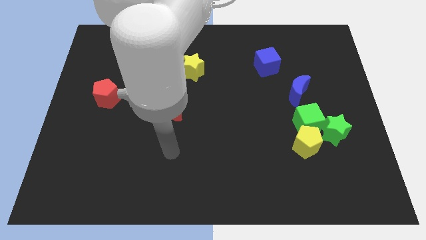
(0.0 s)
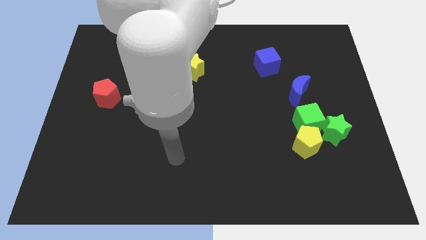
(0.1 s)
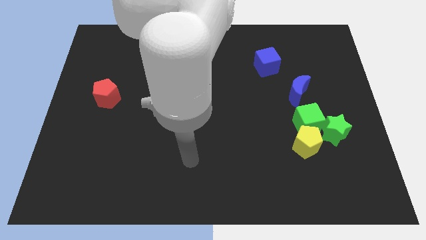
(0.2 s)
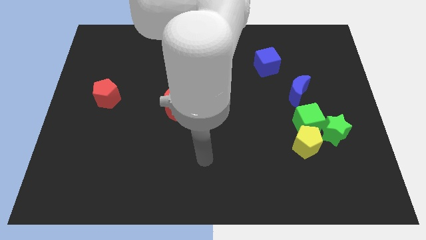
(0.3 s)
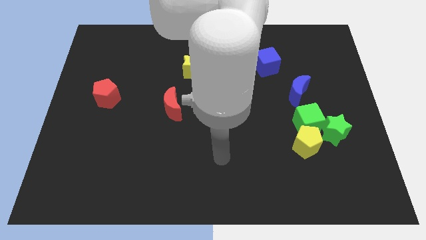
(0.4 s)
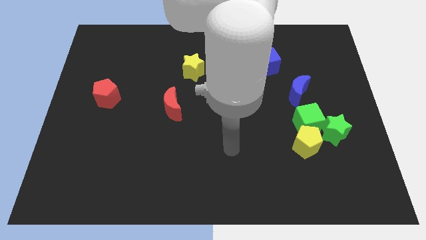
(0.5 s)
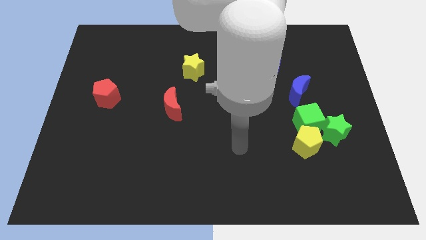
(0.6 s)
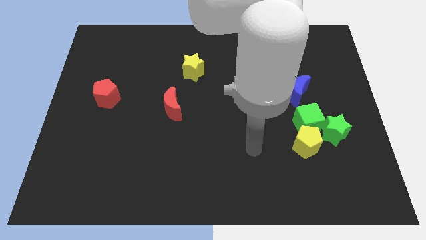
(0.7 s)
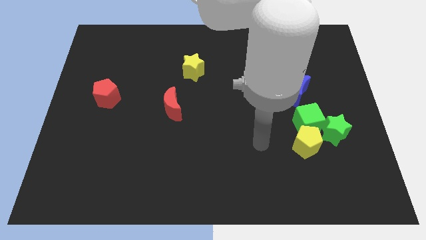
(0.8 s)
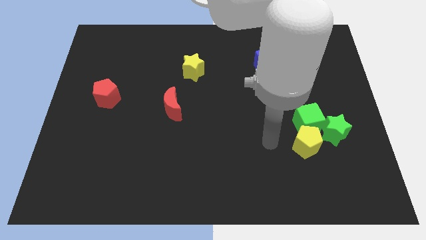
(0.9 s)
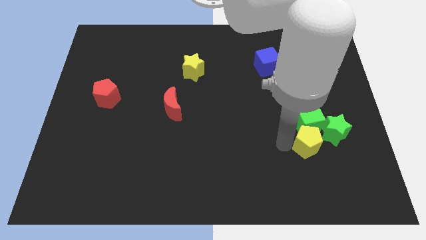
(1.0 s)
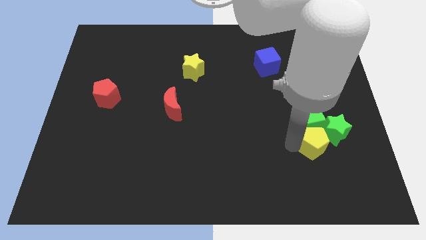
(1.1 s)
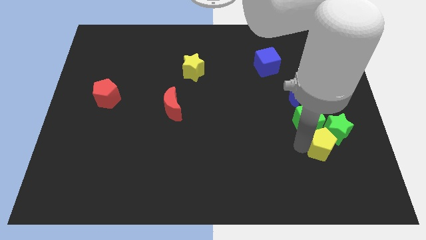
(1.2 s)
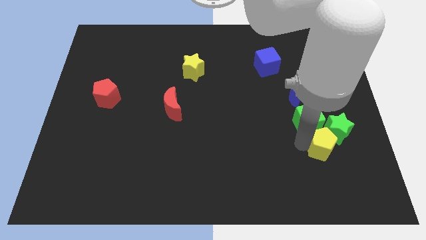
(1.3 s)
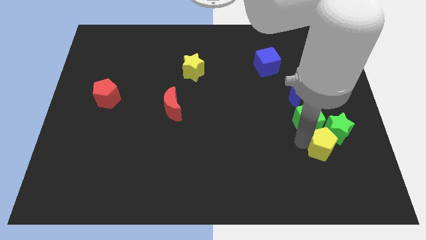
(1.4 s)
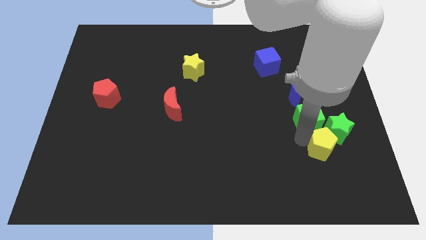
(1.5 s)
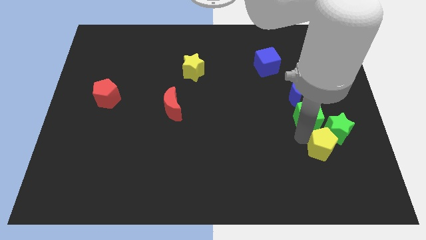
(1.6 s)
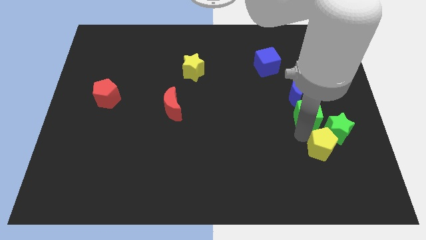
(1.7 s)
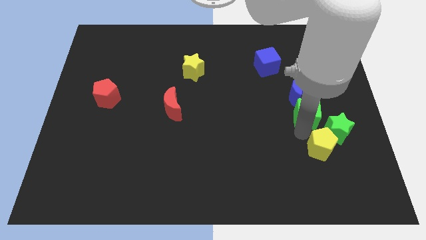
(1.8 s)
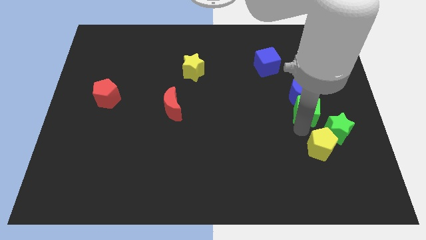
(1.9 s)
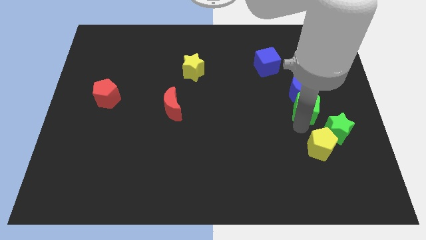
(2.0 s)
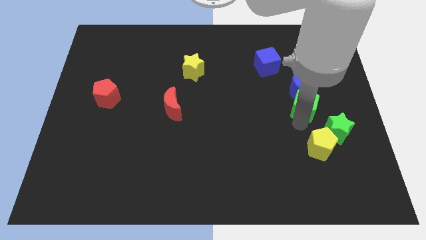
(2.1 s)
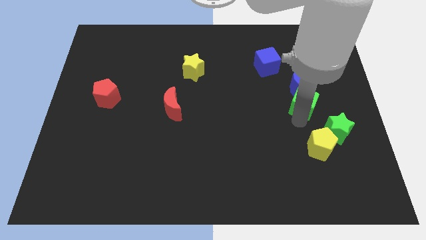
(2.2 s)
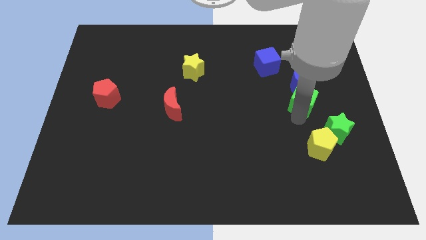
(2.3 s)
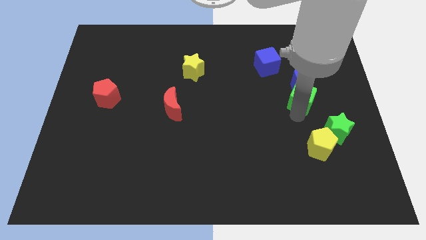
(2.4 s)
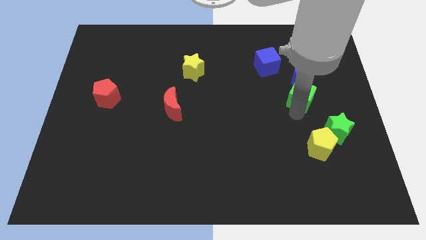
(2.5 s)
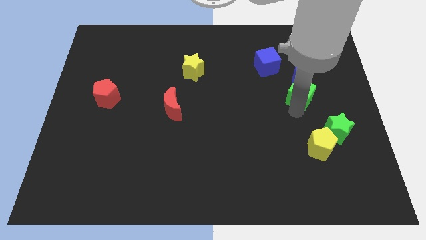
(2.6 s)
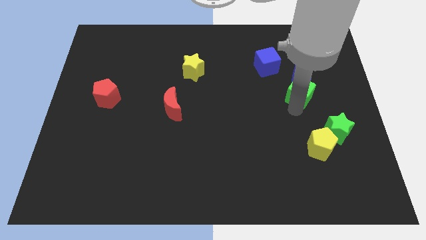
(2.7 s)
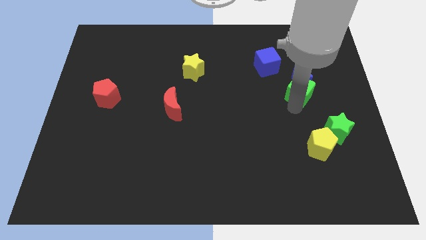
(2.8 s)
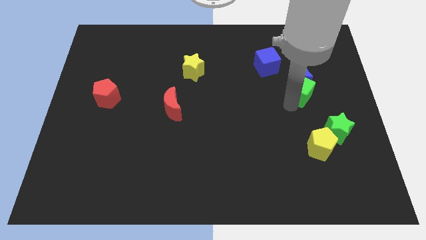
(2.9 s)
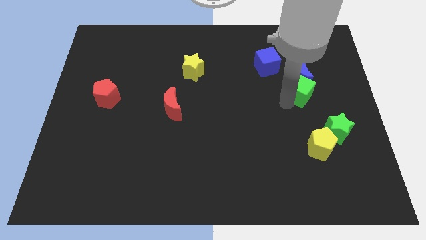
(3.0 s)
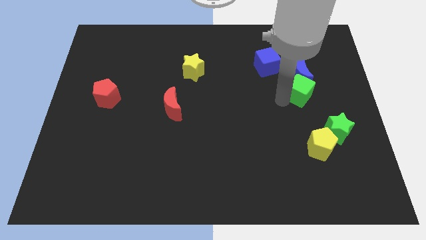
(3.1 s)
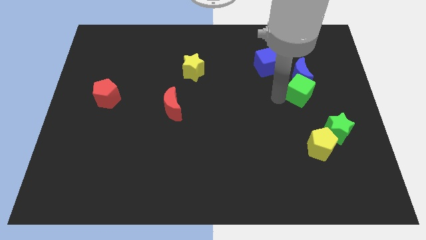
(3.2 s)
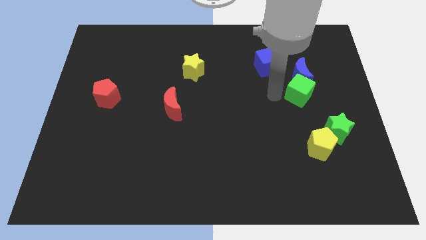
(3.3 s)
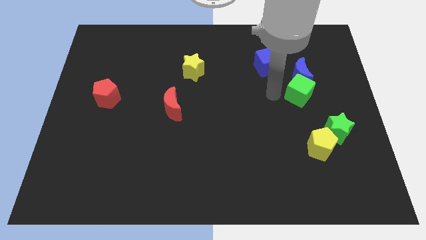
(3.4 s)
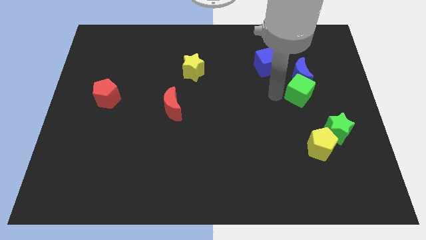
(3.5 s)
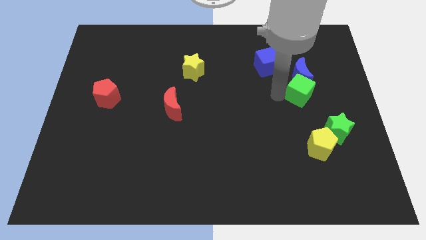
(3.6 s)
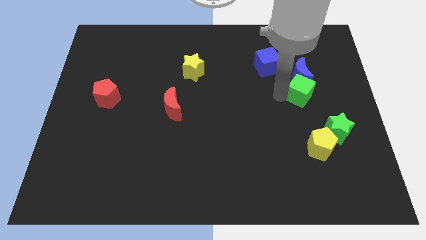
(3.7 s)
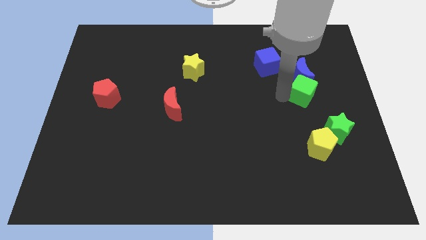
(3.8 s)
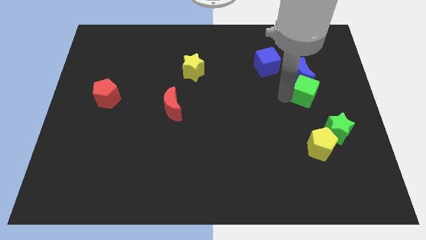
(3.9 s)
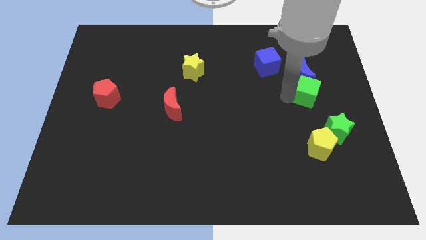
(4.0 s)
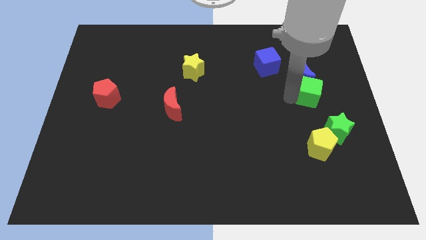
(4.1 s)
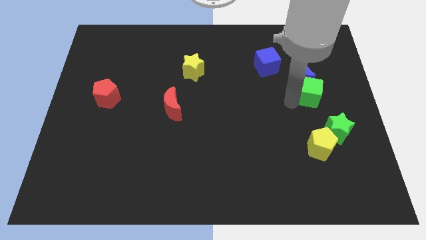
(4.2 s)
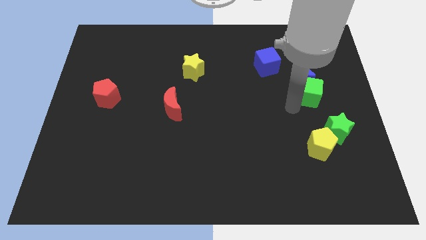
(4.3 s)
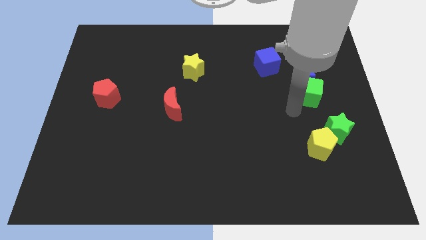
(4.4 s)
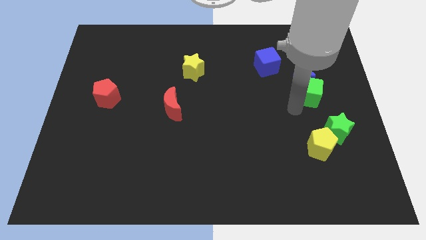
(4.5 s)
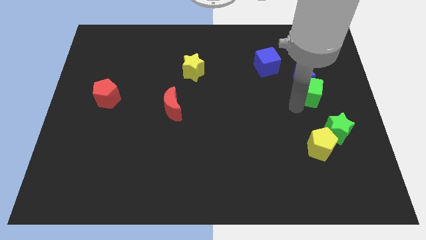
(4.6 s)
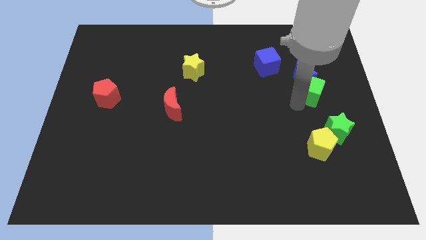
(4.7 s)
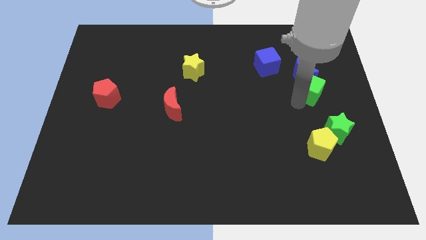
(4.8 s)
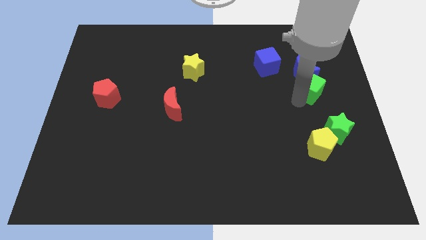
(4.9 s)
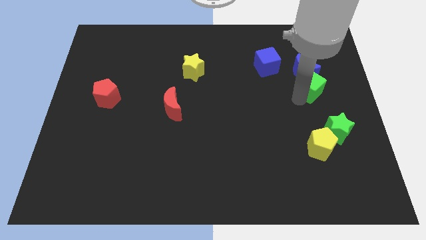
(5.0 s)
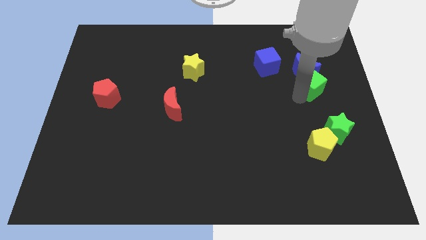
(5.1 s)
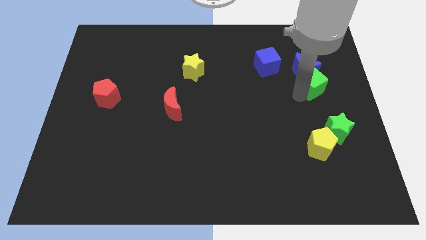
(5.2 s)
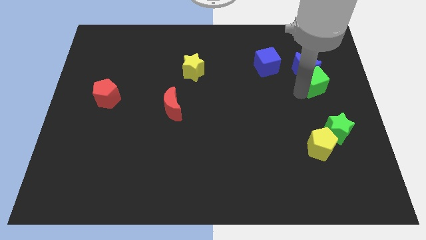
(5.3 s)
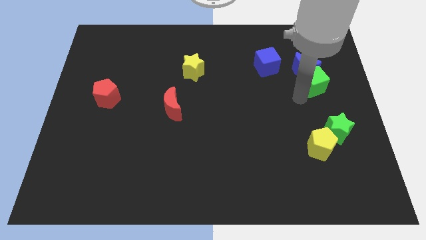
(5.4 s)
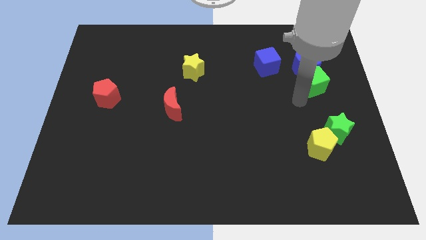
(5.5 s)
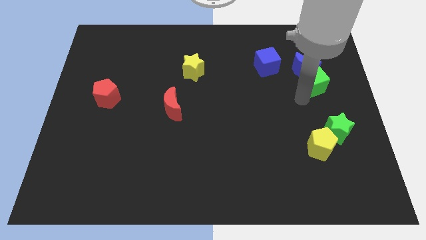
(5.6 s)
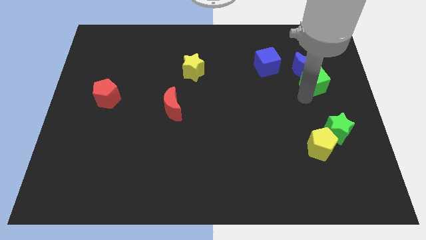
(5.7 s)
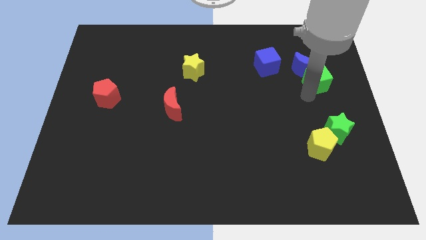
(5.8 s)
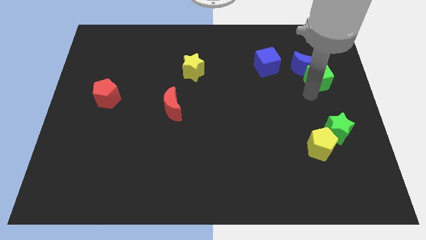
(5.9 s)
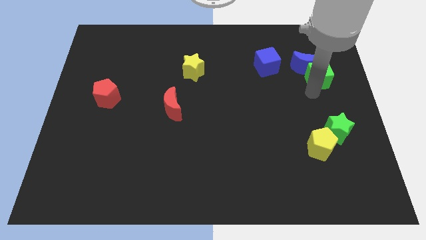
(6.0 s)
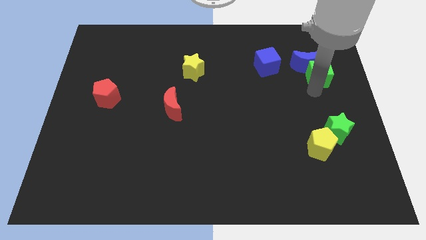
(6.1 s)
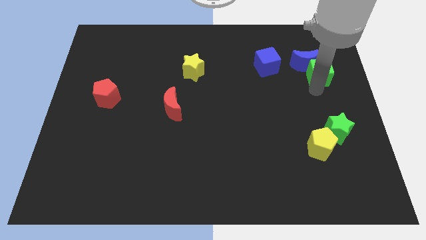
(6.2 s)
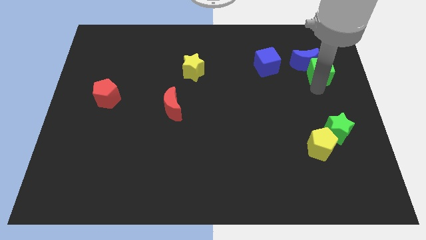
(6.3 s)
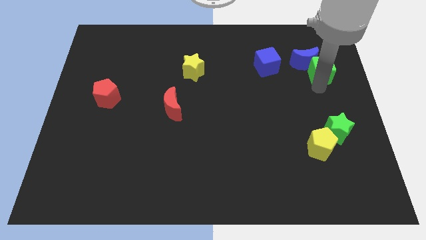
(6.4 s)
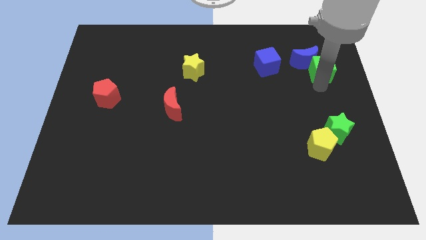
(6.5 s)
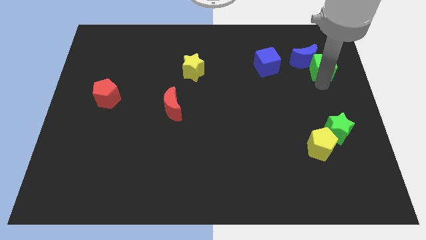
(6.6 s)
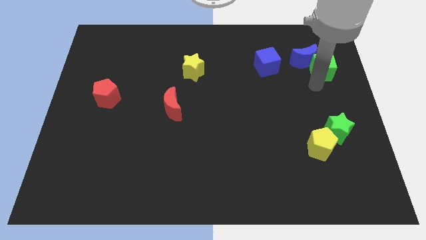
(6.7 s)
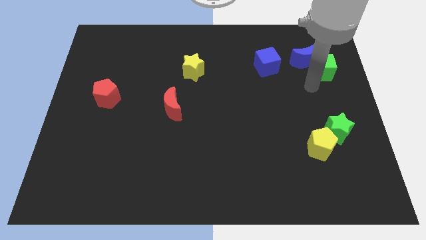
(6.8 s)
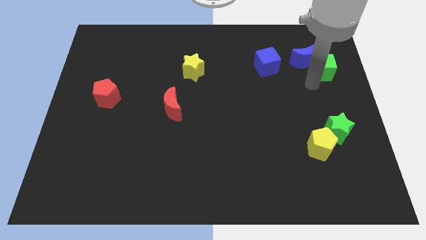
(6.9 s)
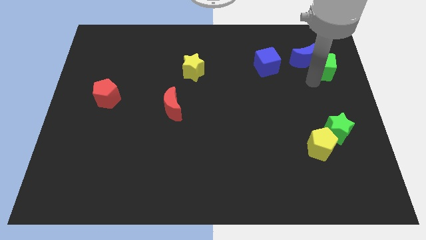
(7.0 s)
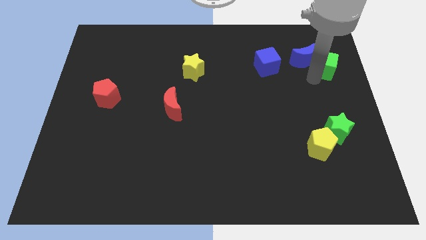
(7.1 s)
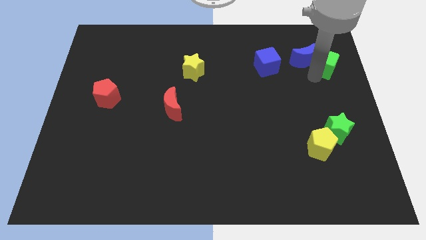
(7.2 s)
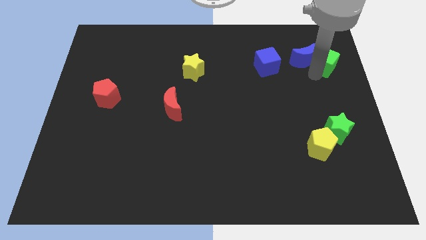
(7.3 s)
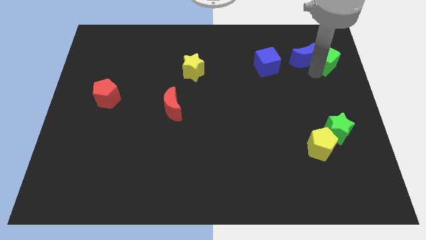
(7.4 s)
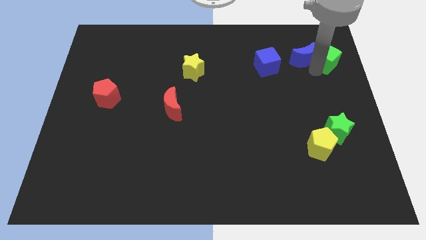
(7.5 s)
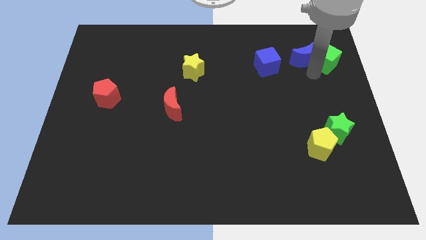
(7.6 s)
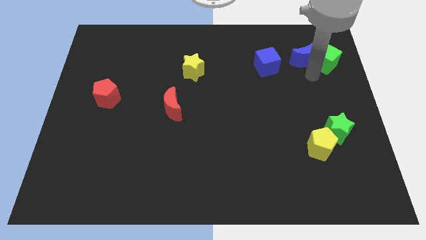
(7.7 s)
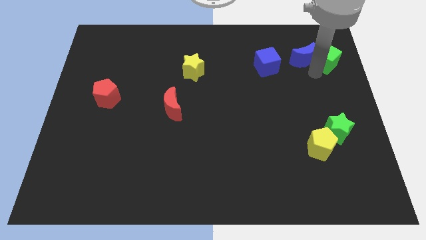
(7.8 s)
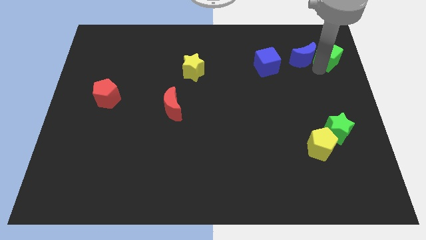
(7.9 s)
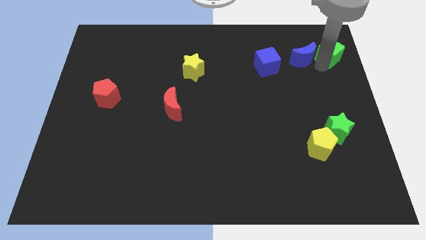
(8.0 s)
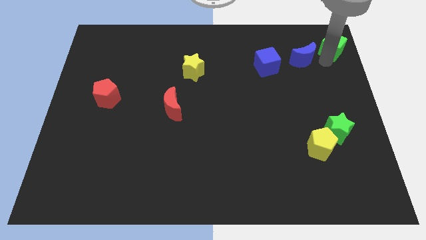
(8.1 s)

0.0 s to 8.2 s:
move the green cube to the top right corner
